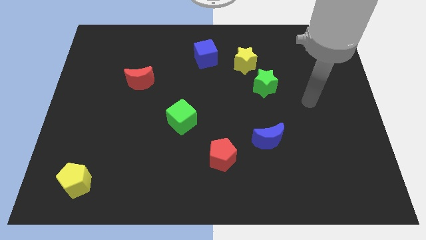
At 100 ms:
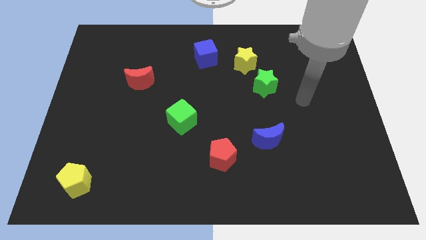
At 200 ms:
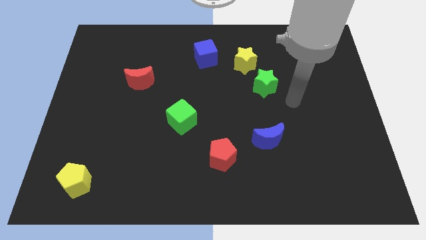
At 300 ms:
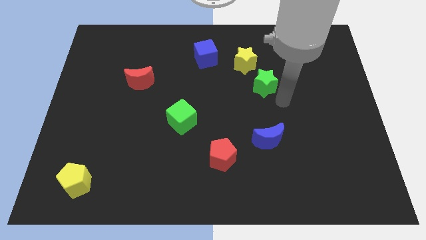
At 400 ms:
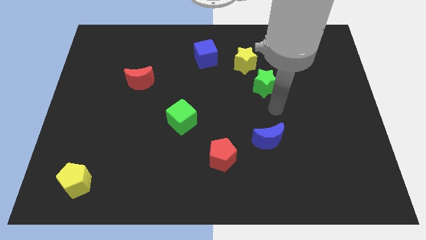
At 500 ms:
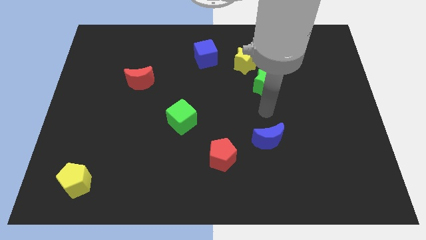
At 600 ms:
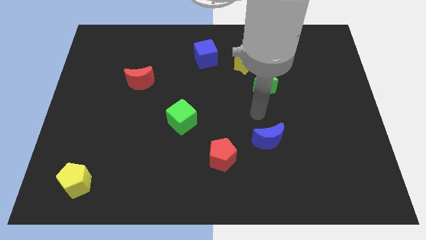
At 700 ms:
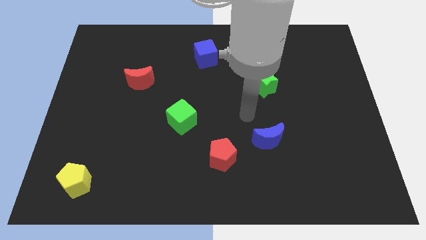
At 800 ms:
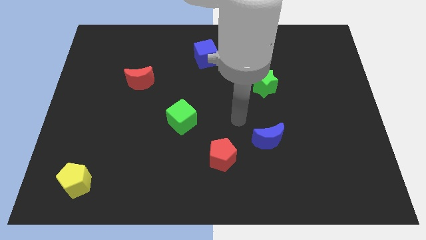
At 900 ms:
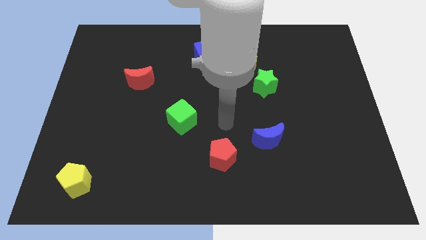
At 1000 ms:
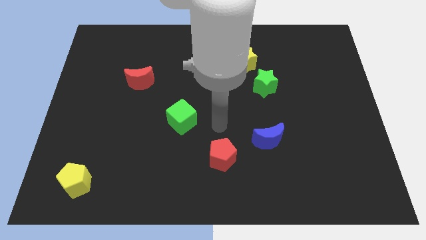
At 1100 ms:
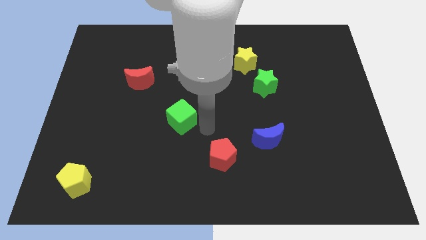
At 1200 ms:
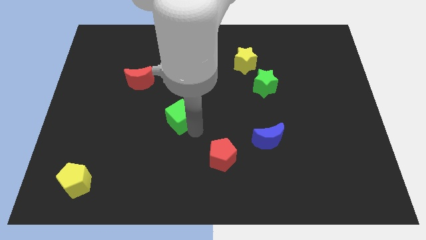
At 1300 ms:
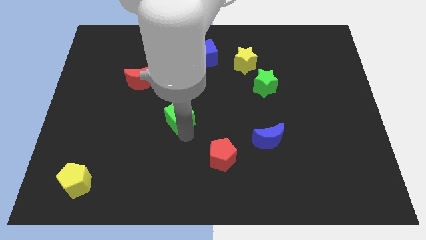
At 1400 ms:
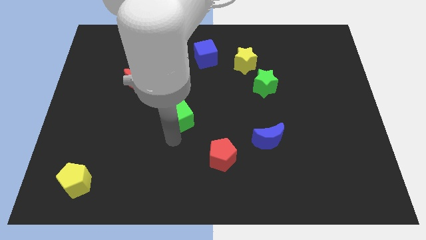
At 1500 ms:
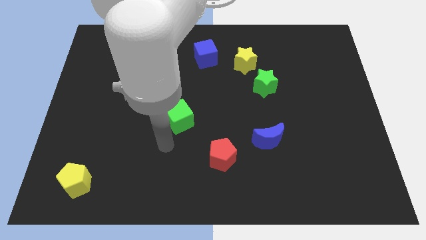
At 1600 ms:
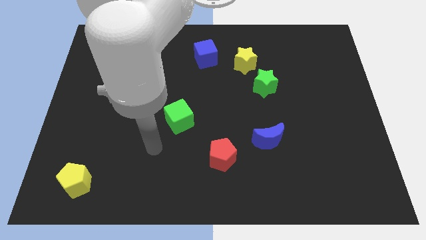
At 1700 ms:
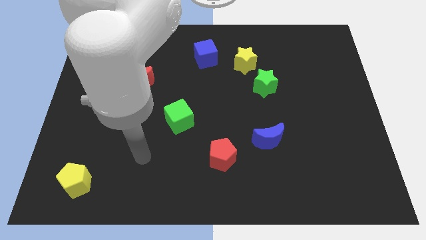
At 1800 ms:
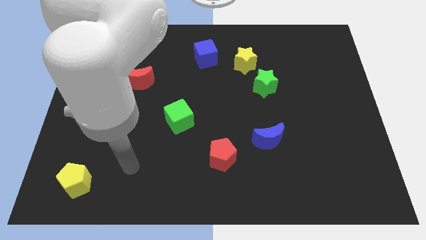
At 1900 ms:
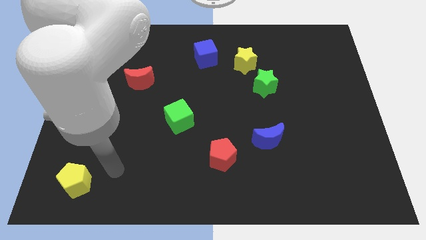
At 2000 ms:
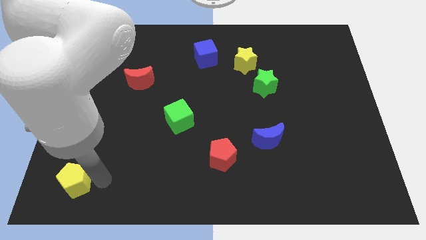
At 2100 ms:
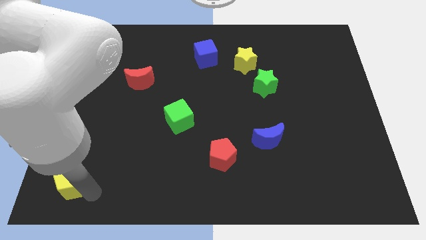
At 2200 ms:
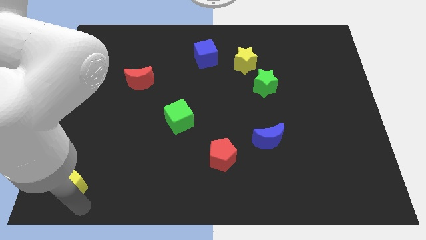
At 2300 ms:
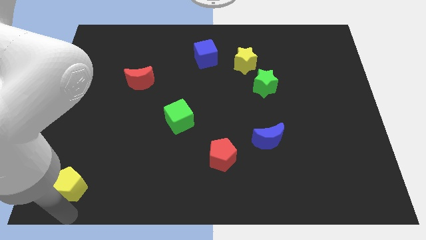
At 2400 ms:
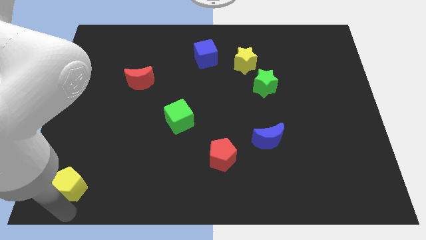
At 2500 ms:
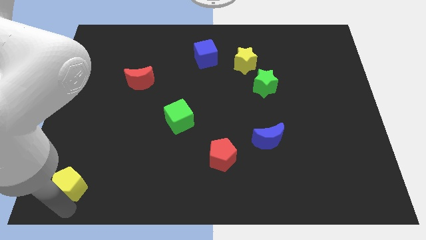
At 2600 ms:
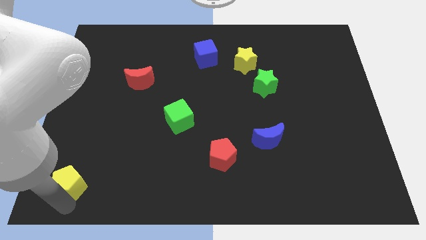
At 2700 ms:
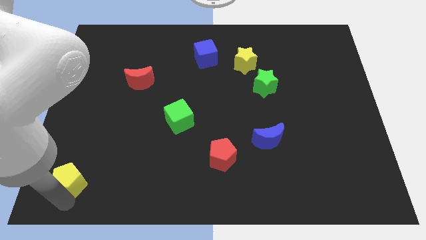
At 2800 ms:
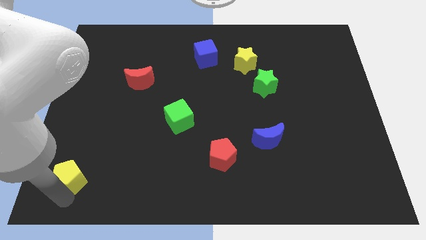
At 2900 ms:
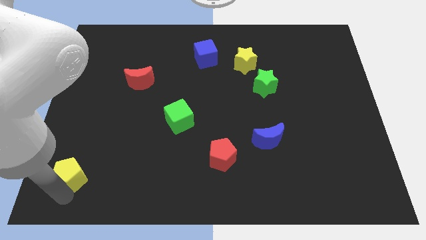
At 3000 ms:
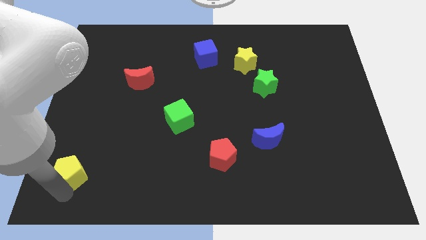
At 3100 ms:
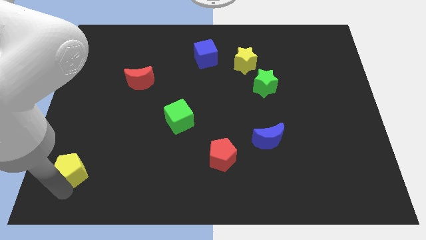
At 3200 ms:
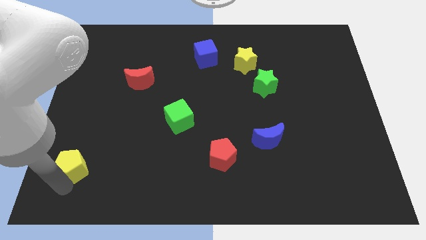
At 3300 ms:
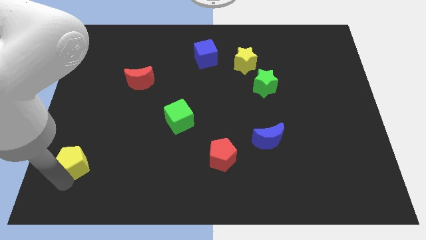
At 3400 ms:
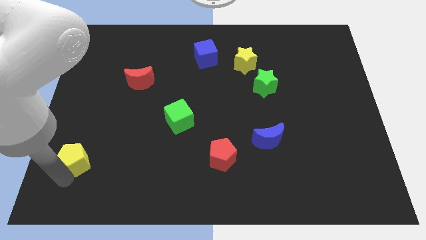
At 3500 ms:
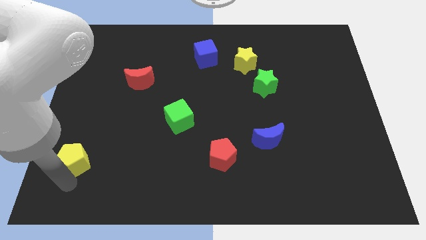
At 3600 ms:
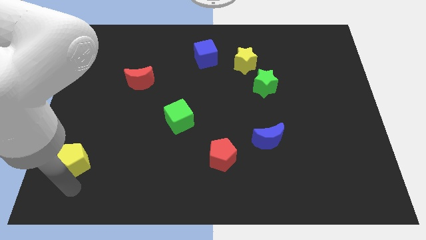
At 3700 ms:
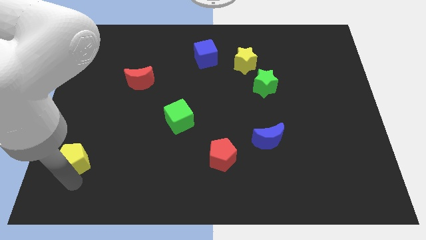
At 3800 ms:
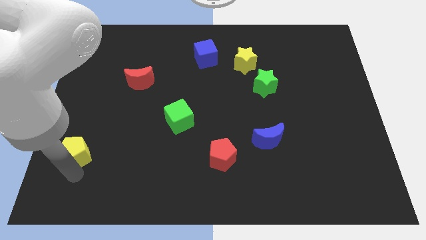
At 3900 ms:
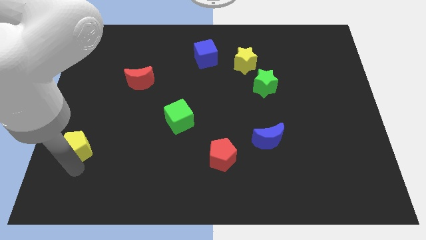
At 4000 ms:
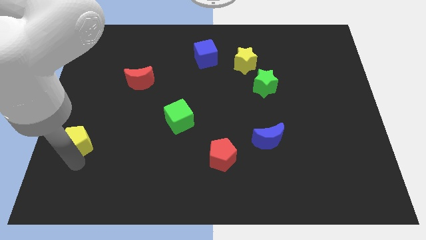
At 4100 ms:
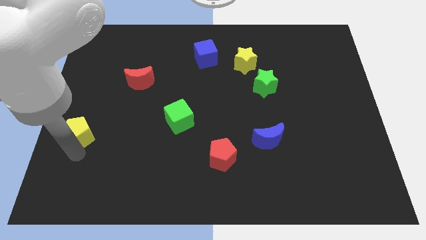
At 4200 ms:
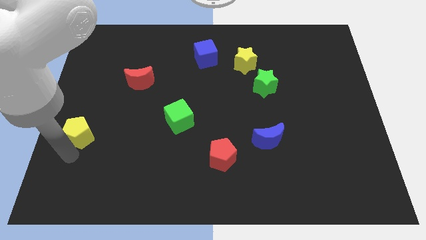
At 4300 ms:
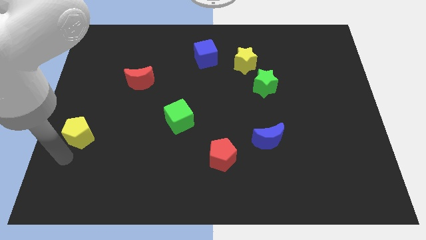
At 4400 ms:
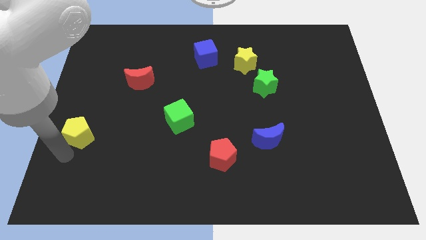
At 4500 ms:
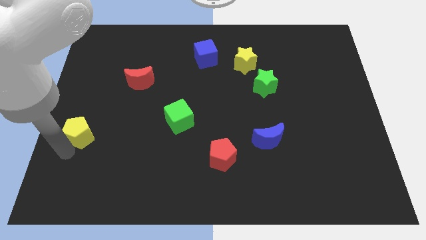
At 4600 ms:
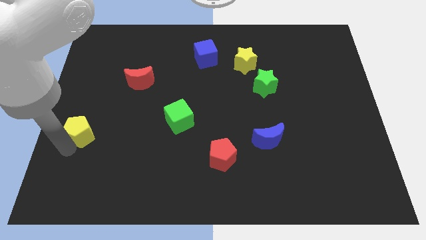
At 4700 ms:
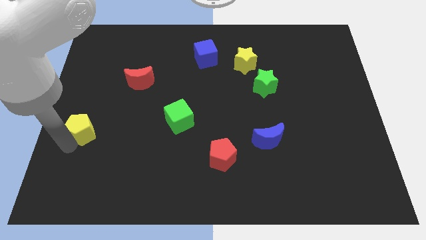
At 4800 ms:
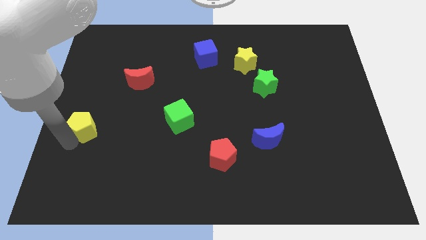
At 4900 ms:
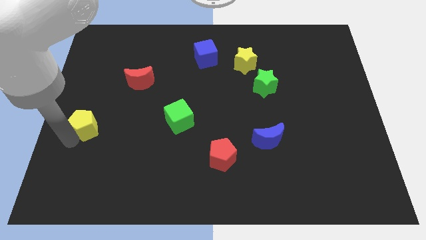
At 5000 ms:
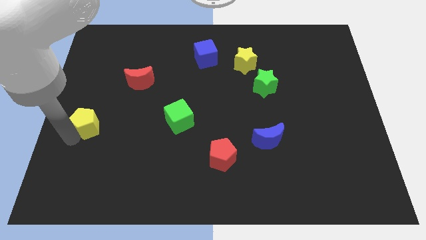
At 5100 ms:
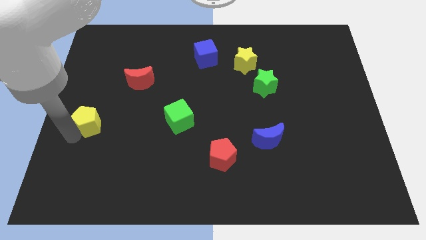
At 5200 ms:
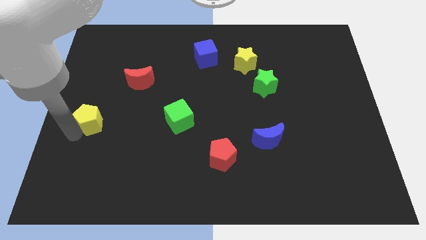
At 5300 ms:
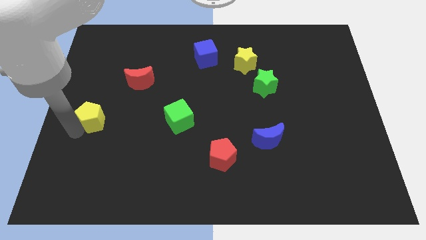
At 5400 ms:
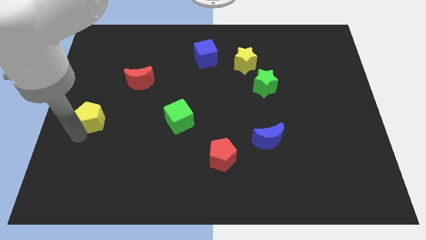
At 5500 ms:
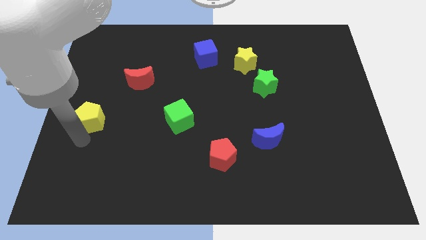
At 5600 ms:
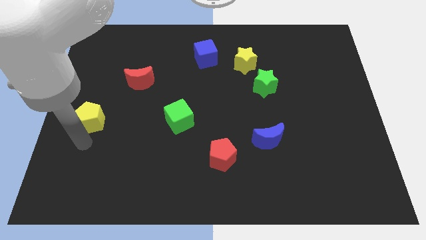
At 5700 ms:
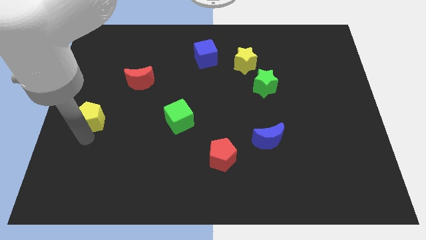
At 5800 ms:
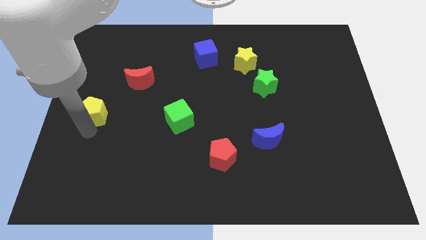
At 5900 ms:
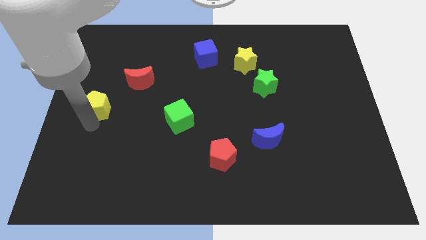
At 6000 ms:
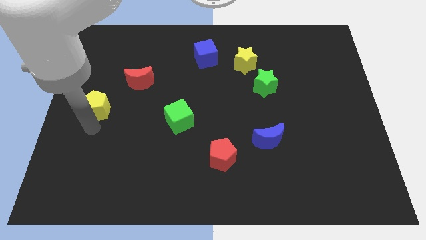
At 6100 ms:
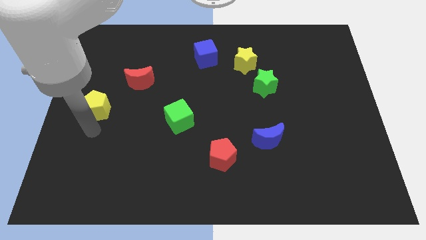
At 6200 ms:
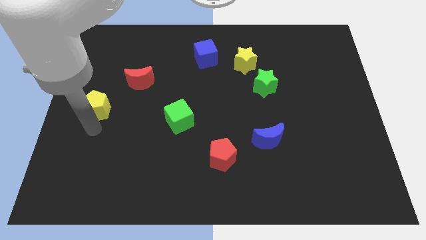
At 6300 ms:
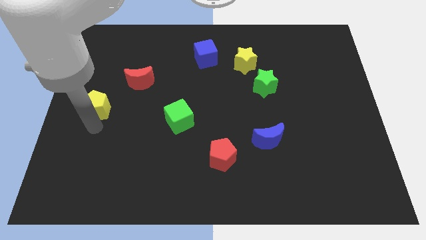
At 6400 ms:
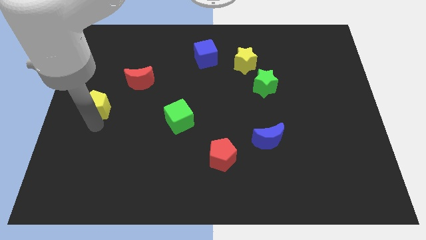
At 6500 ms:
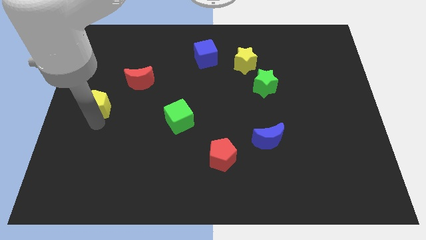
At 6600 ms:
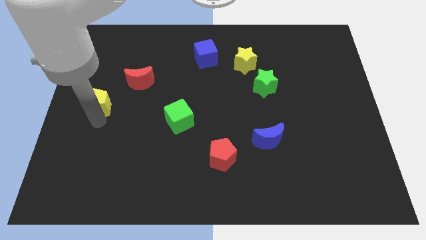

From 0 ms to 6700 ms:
push the yellow pentagon up

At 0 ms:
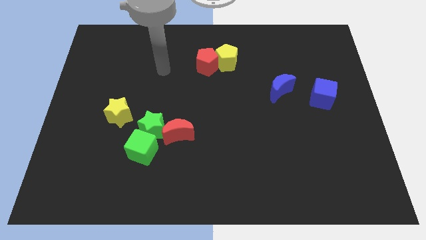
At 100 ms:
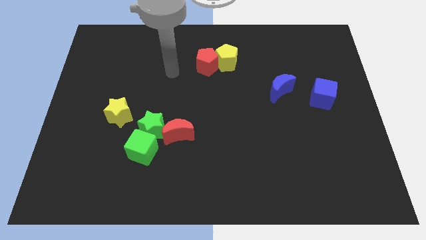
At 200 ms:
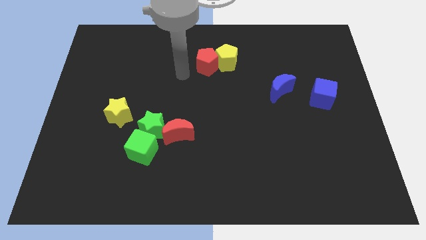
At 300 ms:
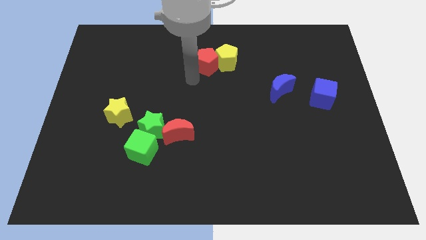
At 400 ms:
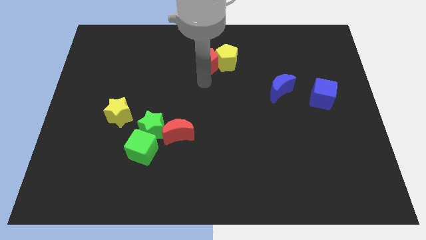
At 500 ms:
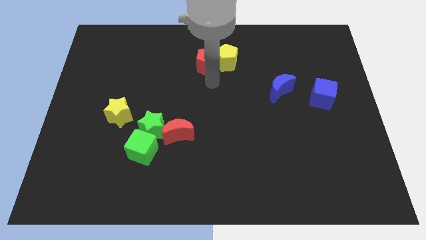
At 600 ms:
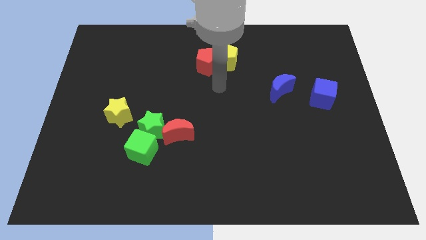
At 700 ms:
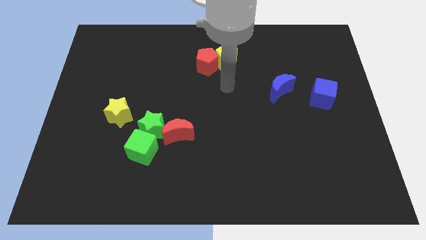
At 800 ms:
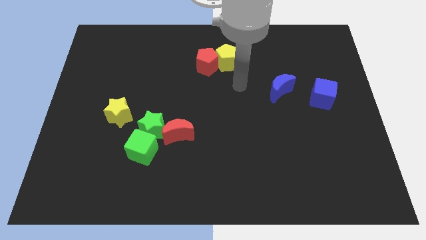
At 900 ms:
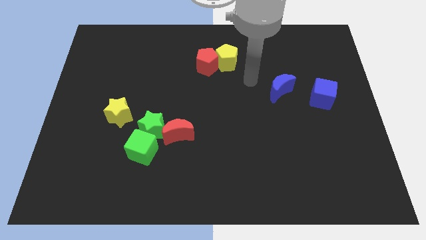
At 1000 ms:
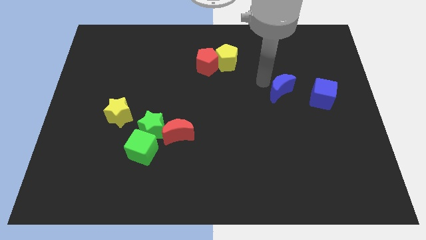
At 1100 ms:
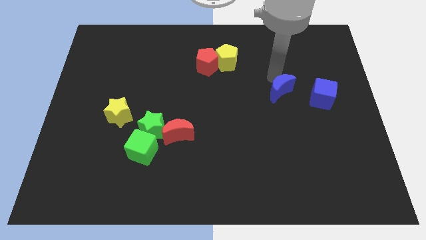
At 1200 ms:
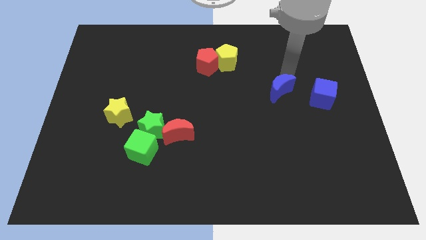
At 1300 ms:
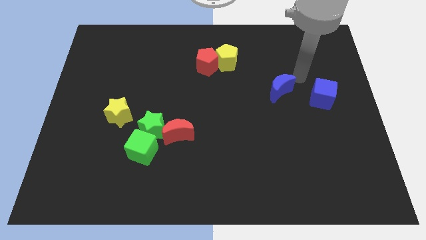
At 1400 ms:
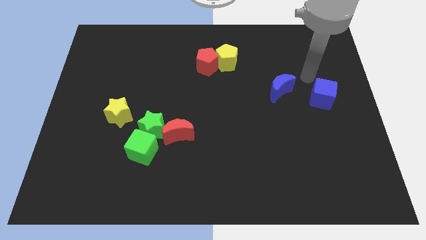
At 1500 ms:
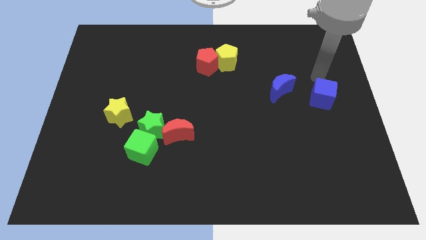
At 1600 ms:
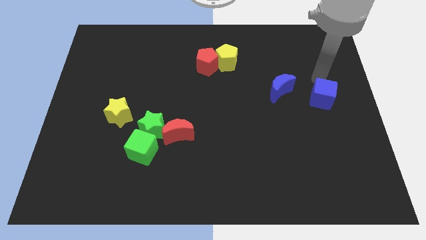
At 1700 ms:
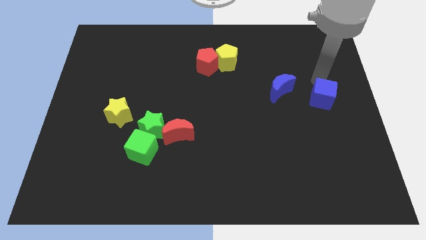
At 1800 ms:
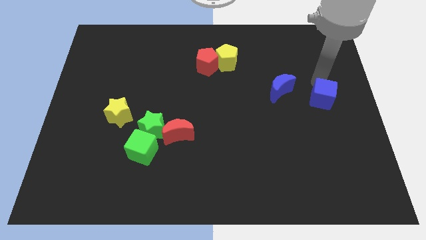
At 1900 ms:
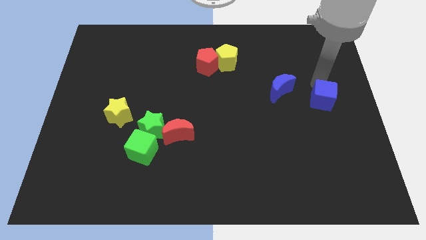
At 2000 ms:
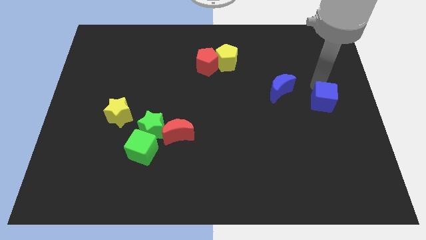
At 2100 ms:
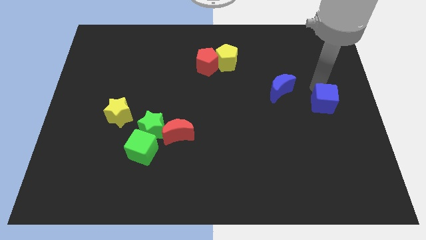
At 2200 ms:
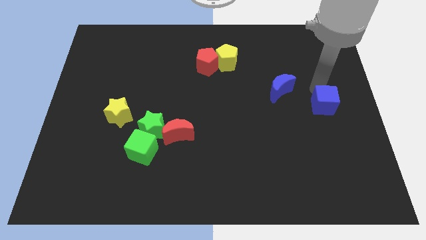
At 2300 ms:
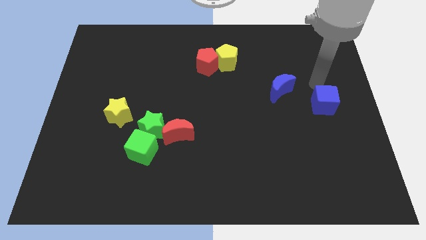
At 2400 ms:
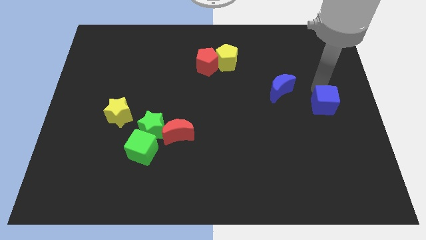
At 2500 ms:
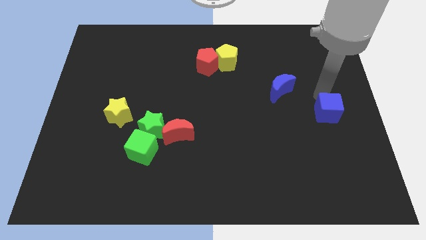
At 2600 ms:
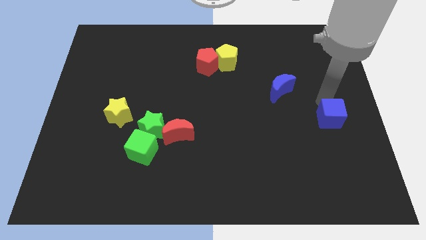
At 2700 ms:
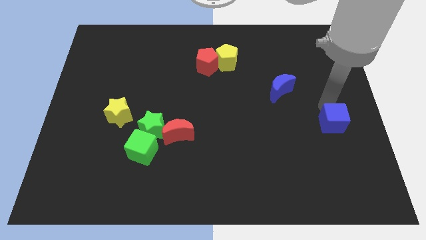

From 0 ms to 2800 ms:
slightly slide the blue cube down
